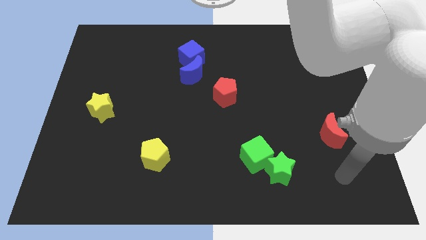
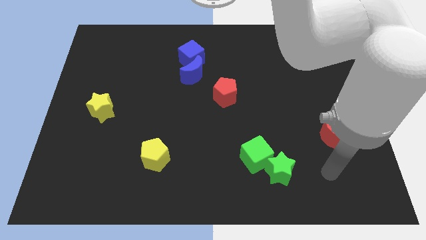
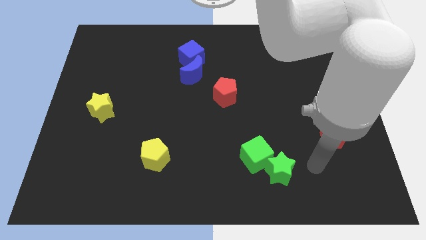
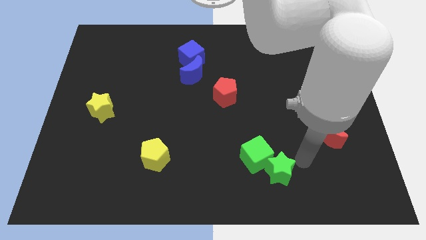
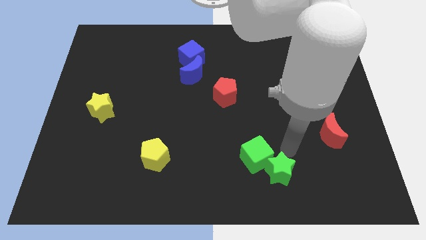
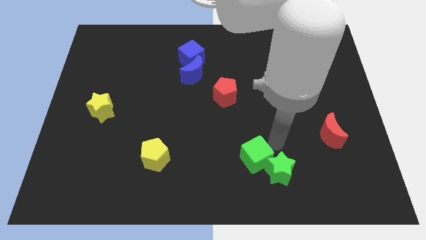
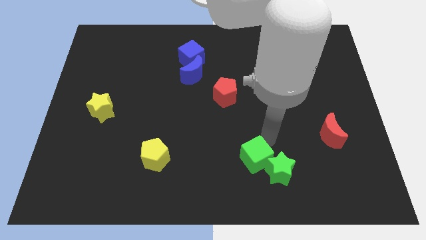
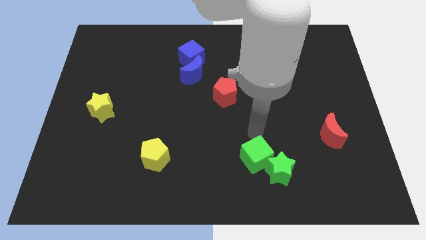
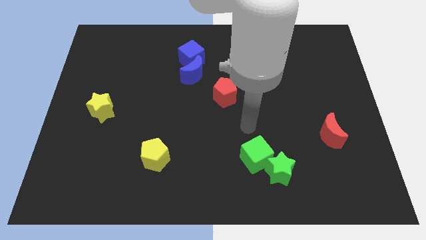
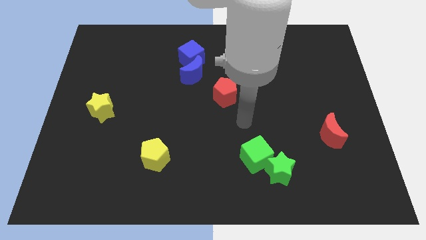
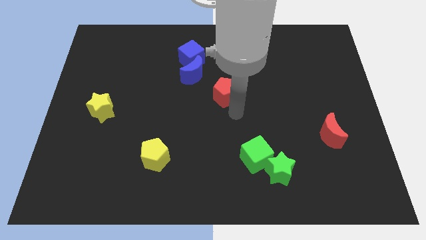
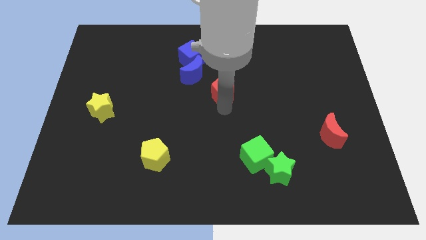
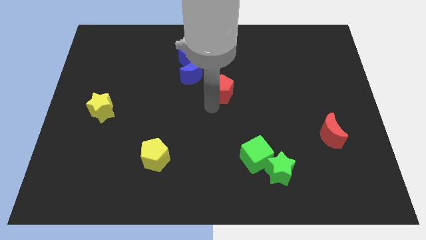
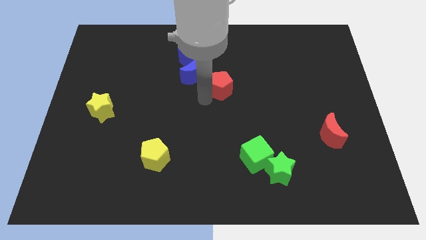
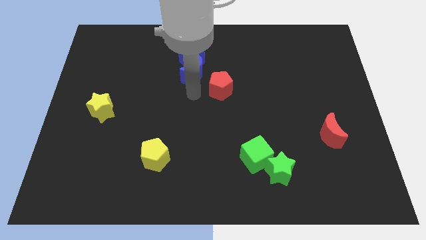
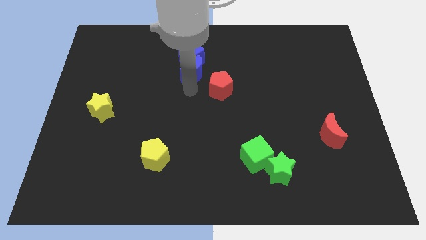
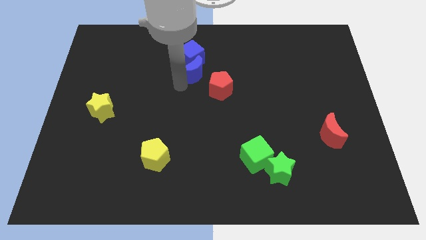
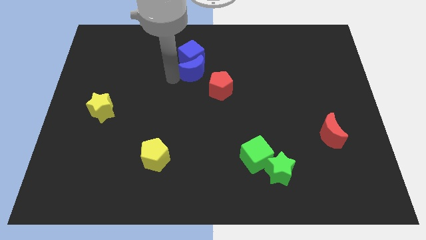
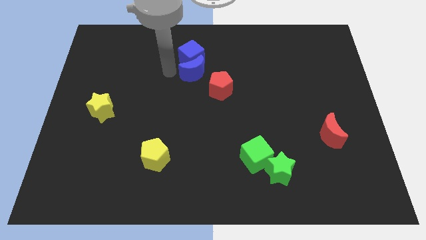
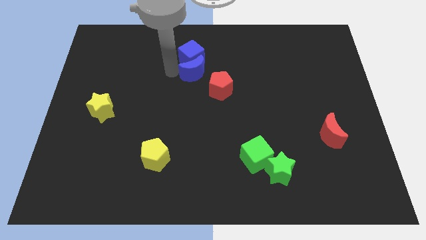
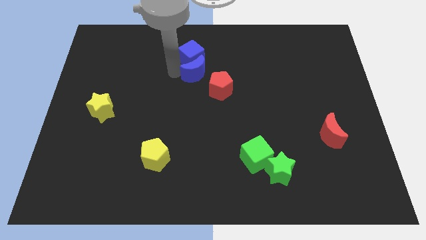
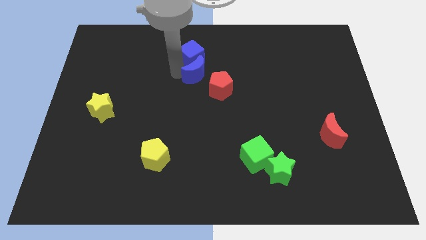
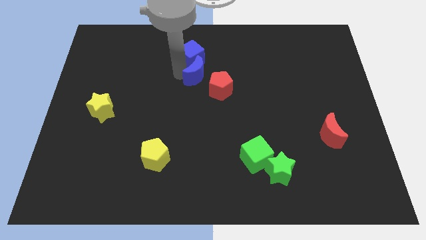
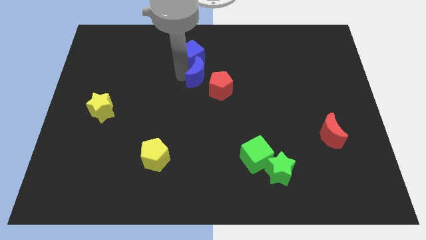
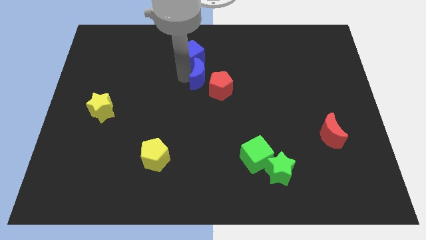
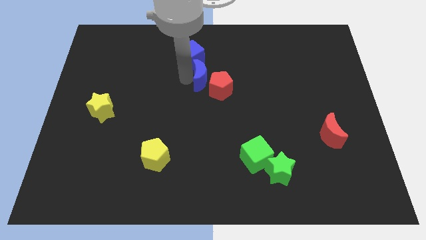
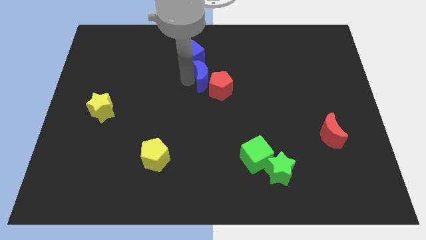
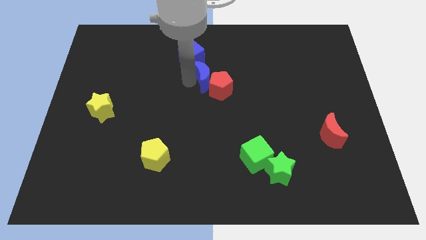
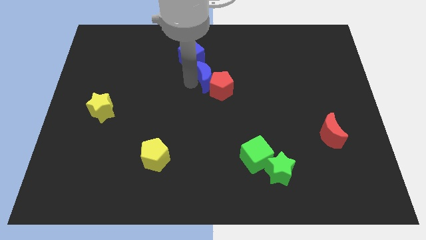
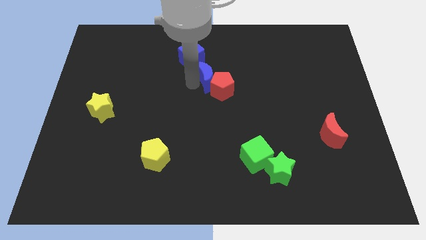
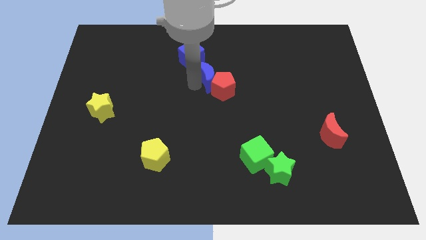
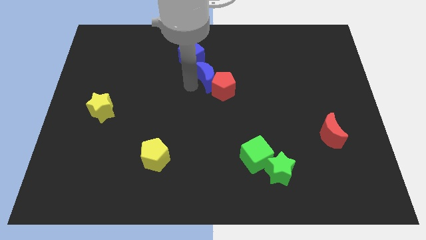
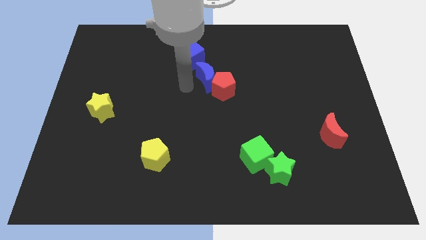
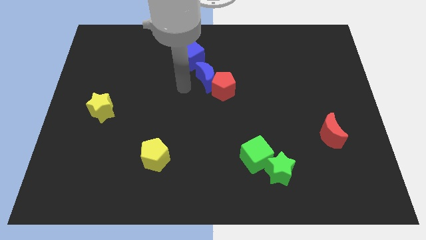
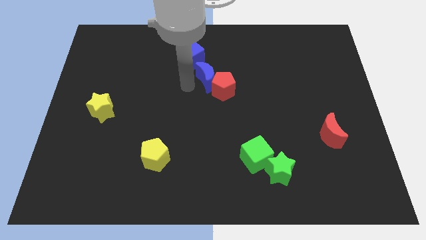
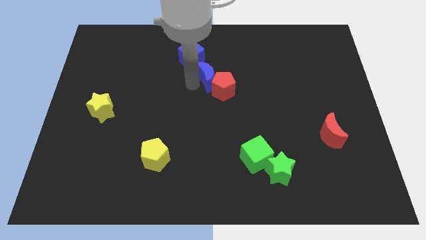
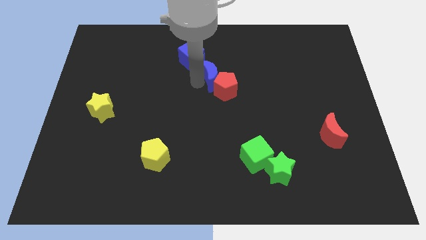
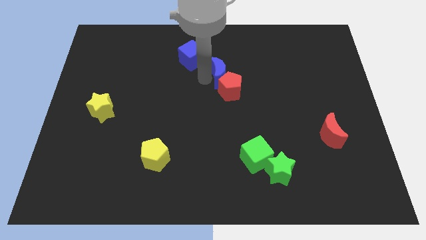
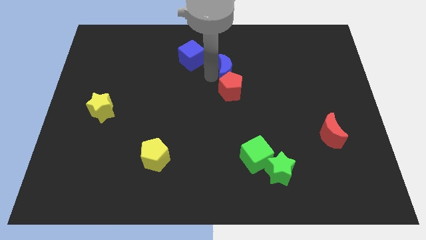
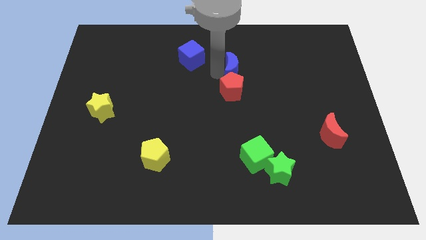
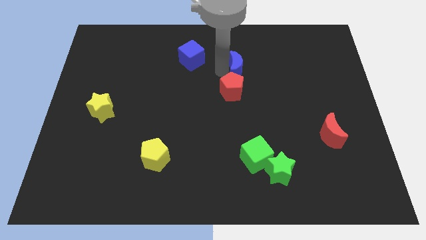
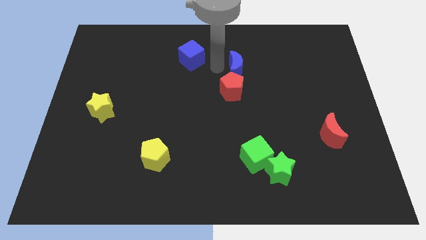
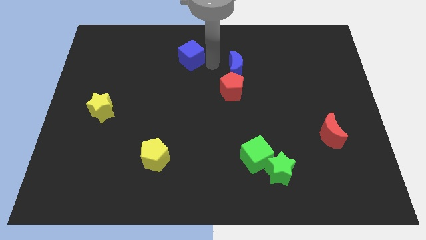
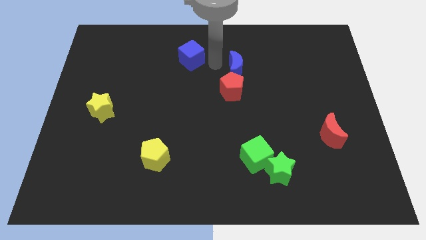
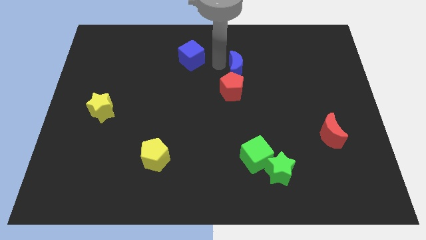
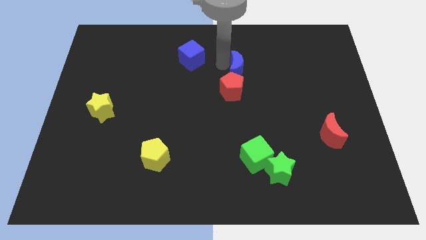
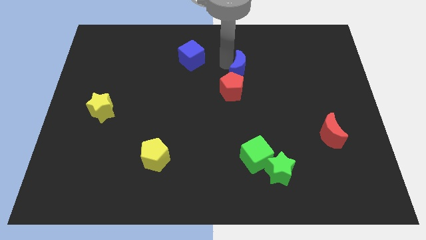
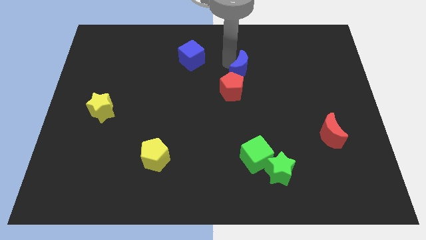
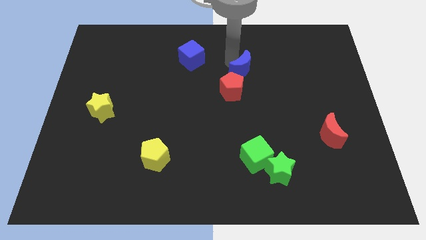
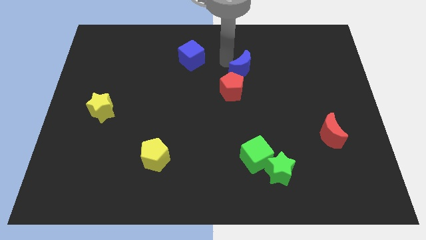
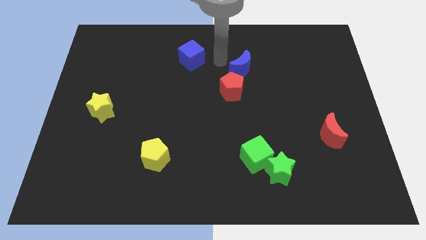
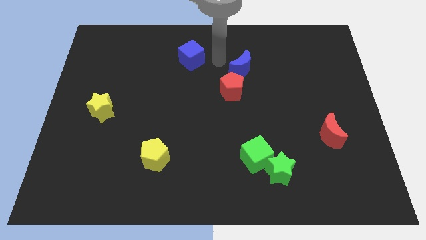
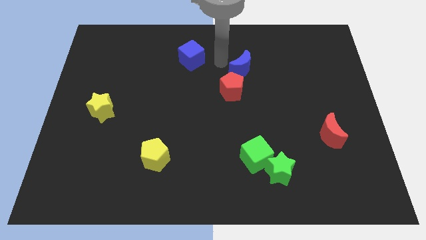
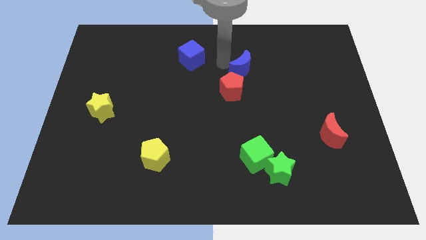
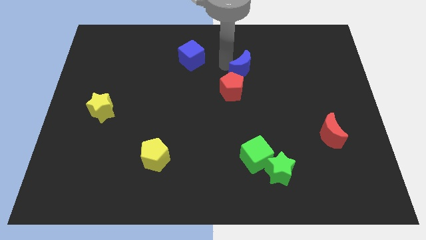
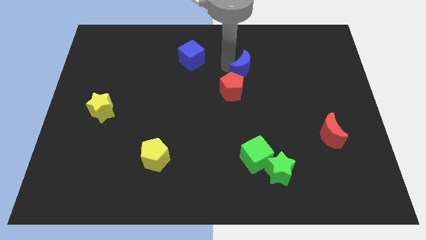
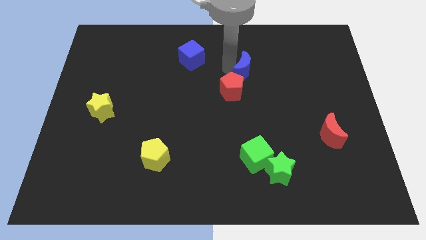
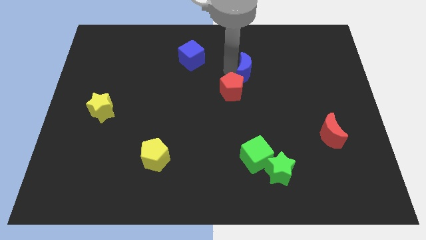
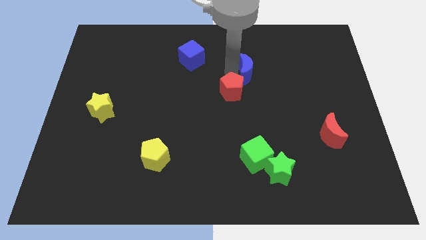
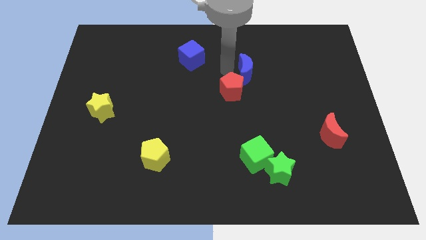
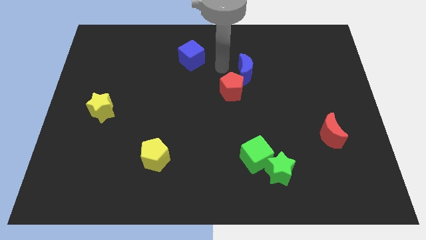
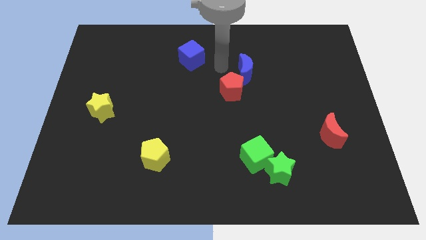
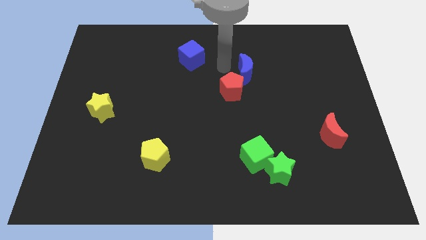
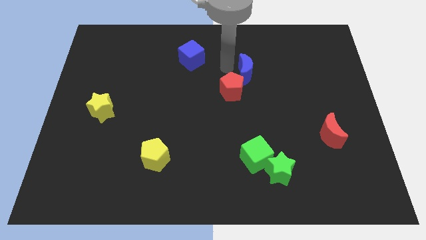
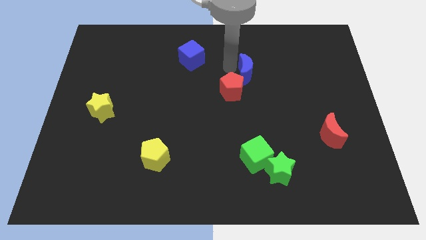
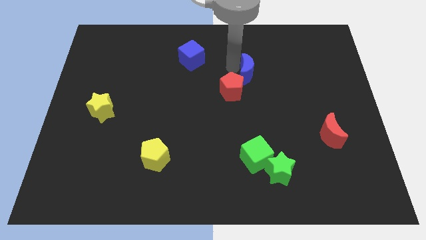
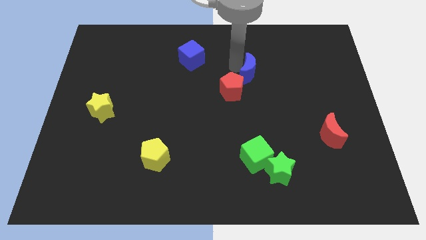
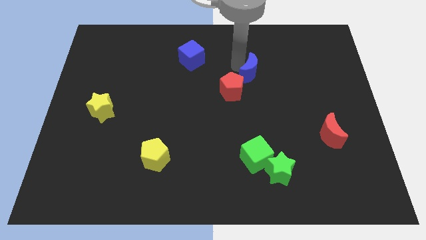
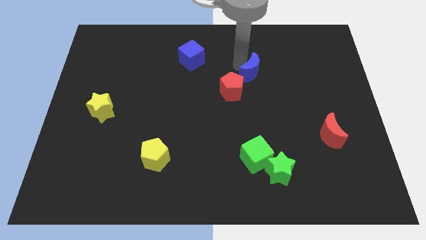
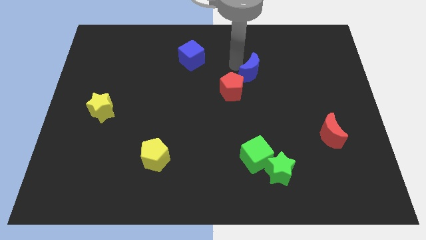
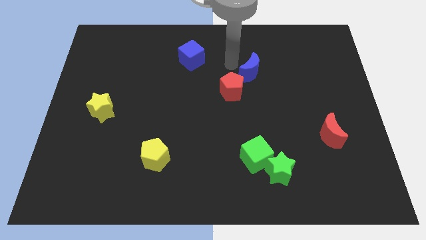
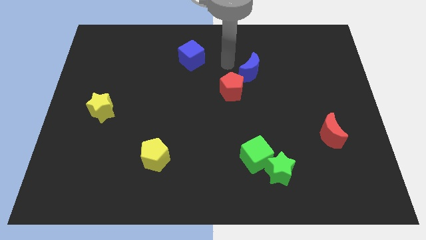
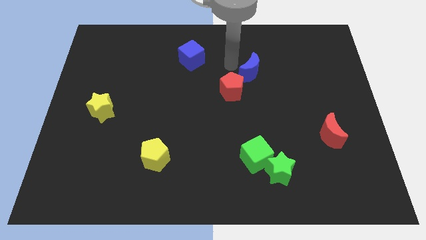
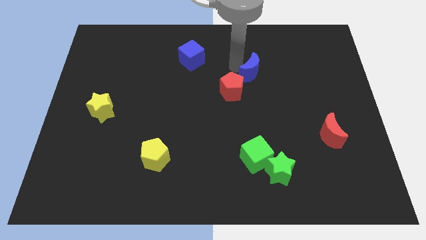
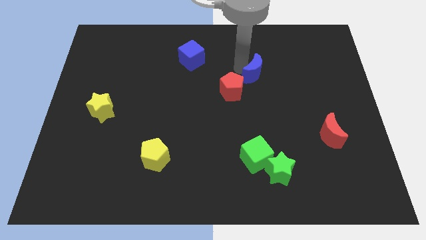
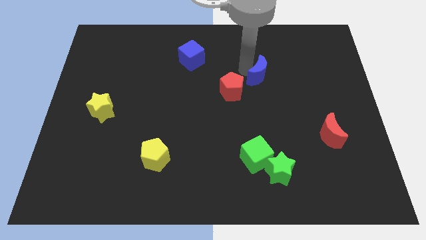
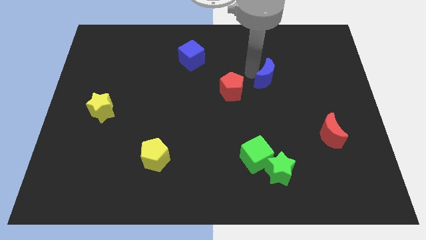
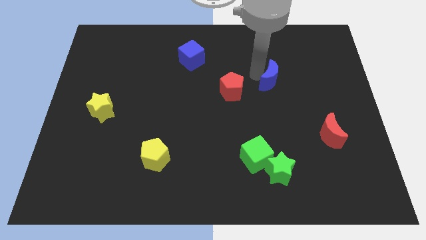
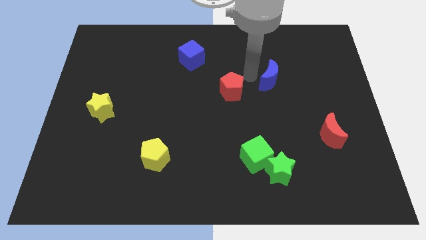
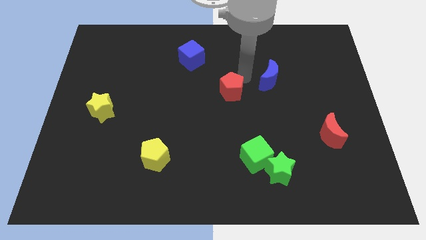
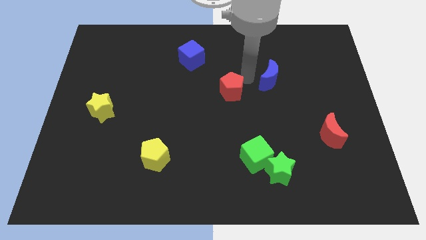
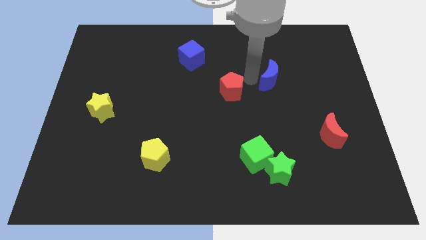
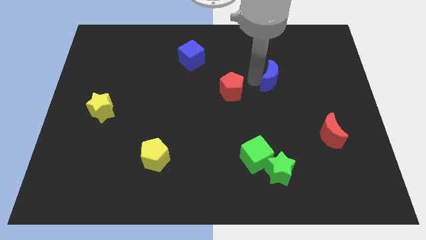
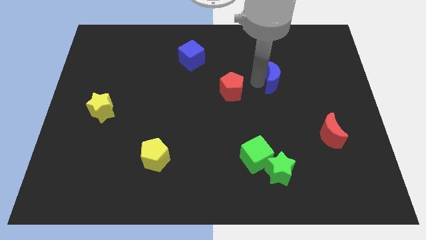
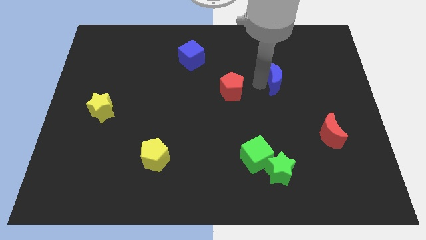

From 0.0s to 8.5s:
move the blue moon to the right
